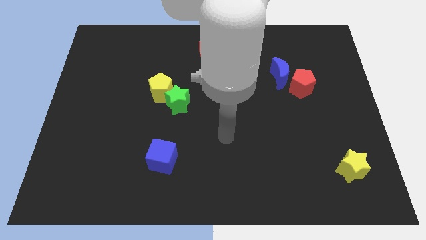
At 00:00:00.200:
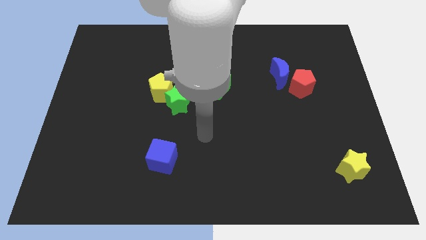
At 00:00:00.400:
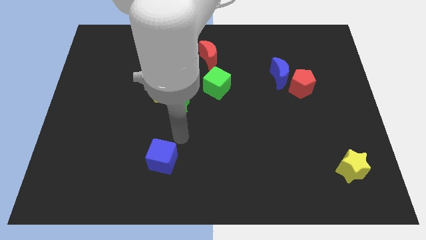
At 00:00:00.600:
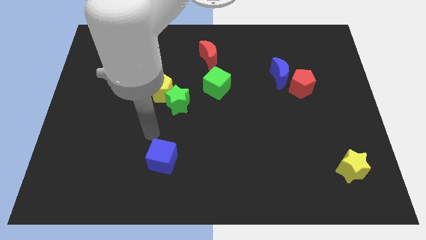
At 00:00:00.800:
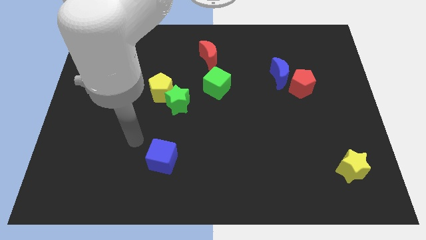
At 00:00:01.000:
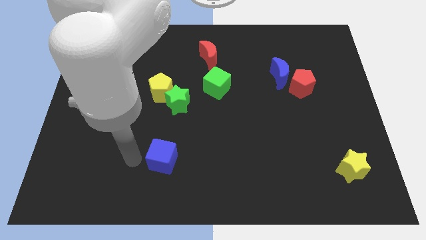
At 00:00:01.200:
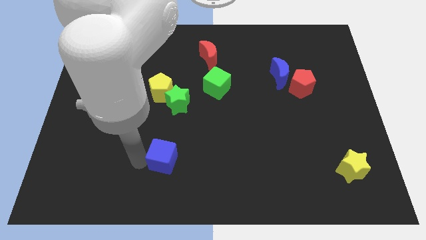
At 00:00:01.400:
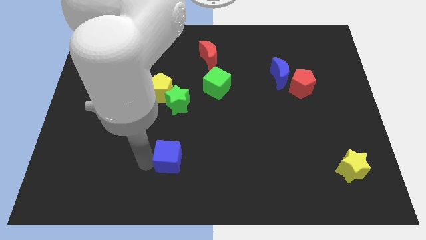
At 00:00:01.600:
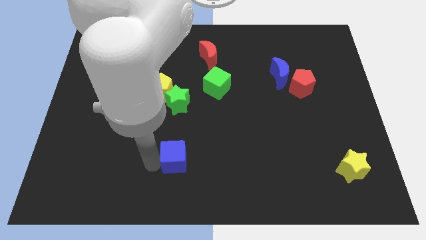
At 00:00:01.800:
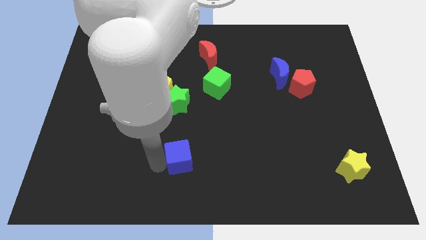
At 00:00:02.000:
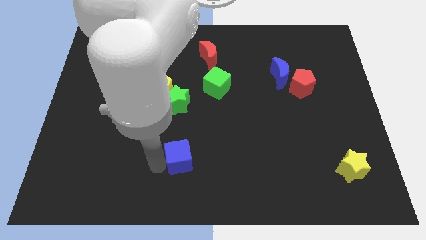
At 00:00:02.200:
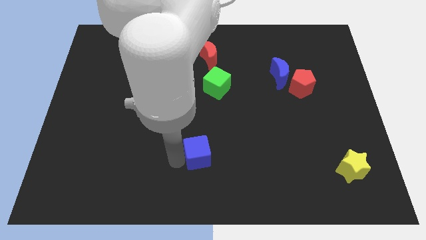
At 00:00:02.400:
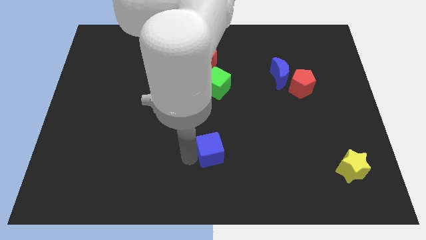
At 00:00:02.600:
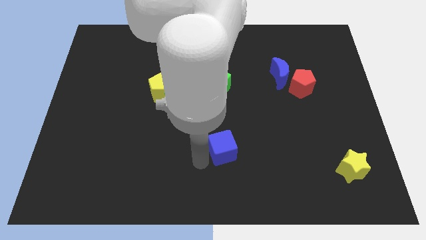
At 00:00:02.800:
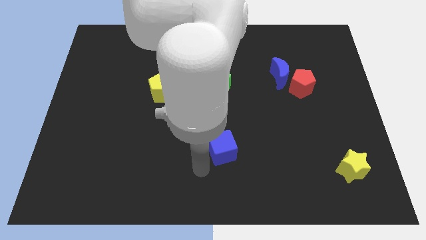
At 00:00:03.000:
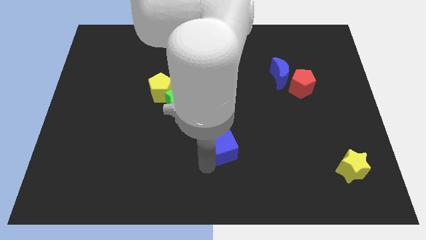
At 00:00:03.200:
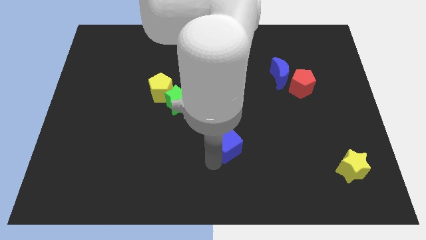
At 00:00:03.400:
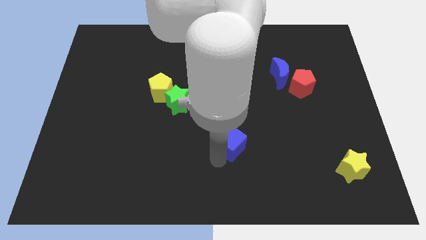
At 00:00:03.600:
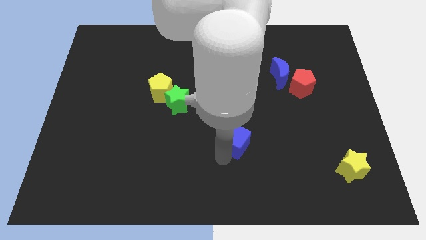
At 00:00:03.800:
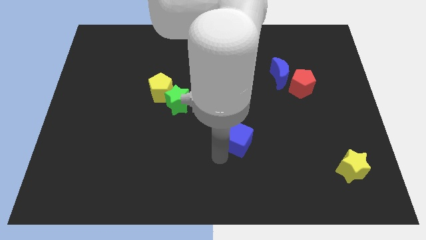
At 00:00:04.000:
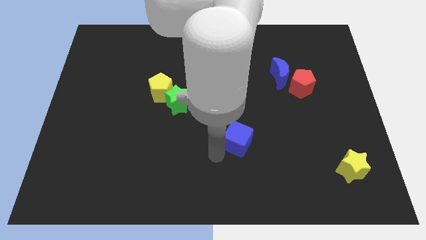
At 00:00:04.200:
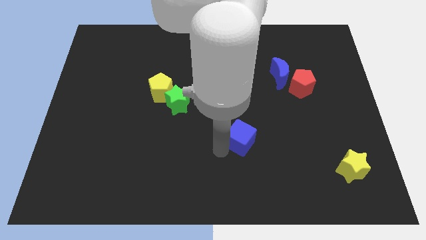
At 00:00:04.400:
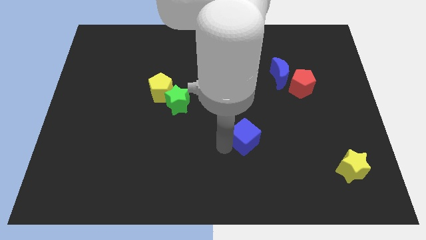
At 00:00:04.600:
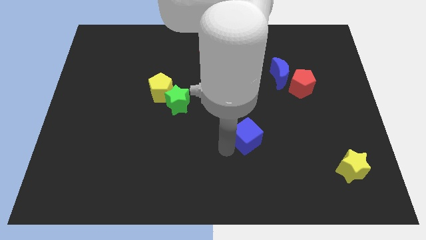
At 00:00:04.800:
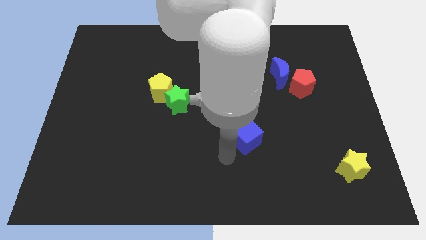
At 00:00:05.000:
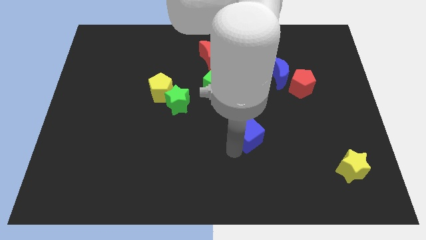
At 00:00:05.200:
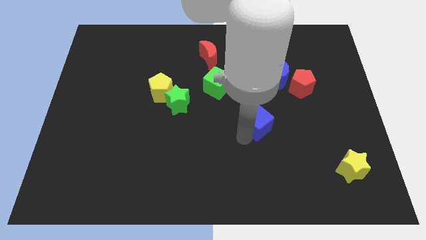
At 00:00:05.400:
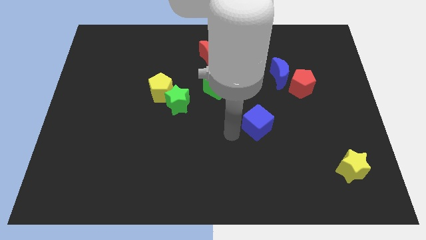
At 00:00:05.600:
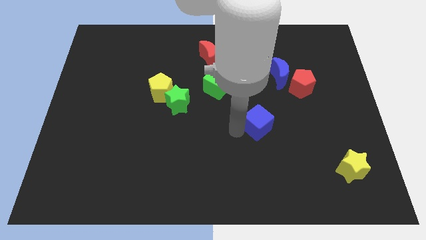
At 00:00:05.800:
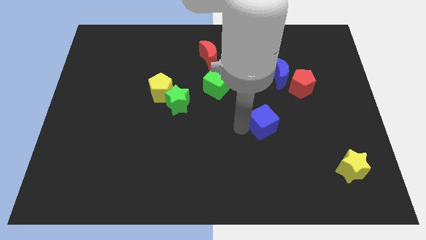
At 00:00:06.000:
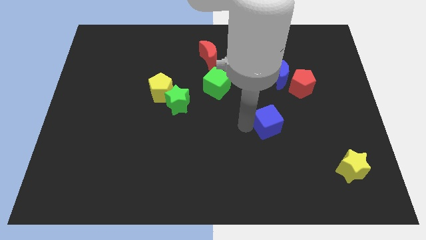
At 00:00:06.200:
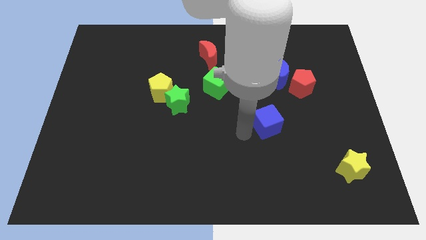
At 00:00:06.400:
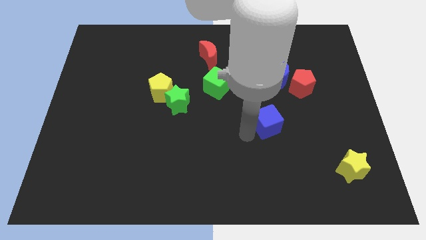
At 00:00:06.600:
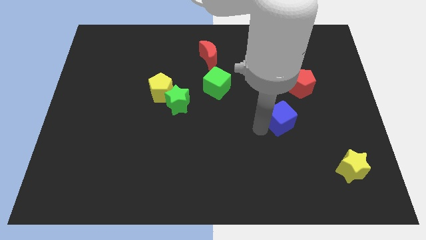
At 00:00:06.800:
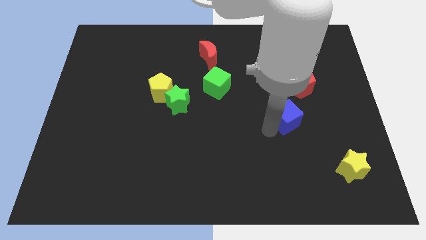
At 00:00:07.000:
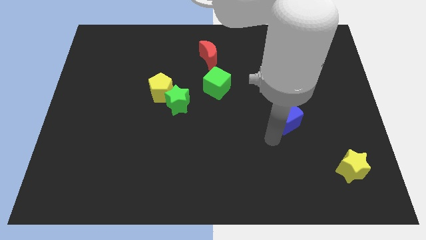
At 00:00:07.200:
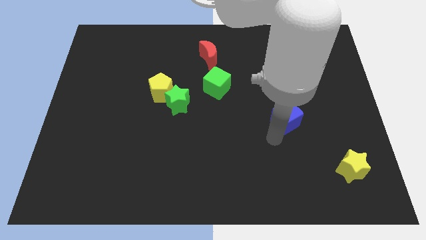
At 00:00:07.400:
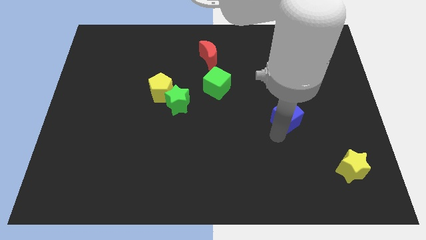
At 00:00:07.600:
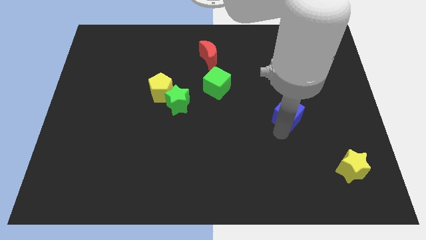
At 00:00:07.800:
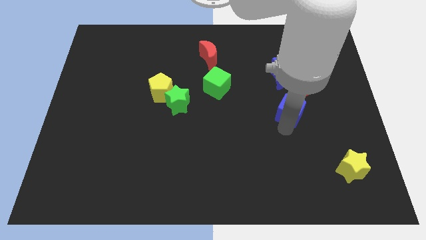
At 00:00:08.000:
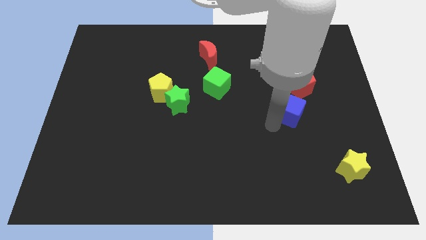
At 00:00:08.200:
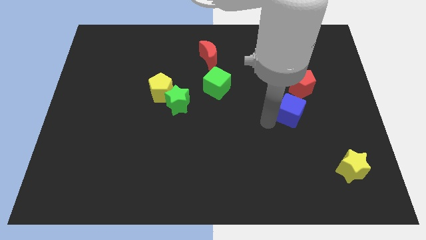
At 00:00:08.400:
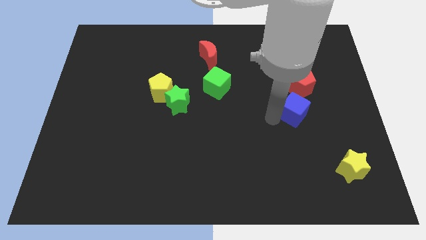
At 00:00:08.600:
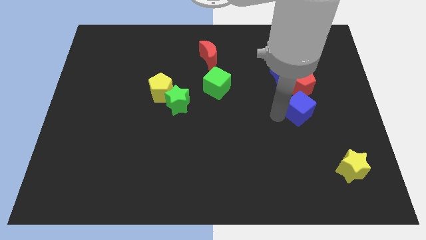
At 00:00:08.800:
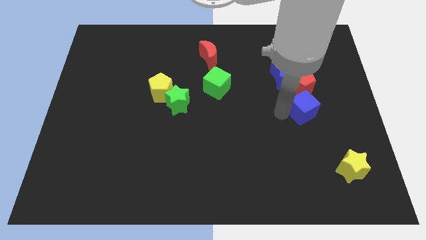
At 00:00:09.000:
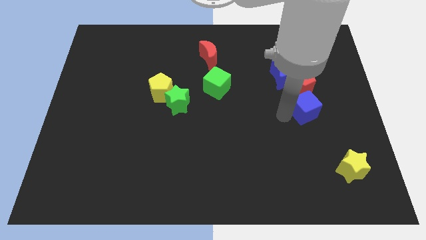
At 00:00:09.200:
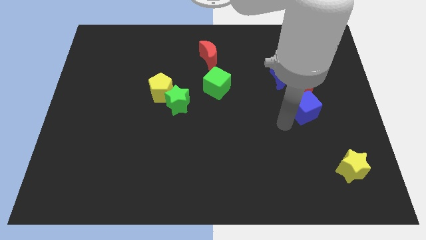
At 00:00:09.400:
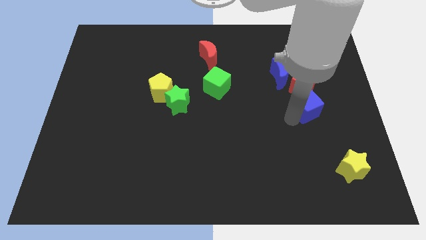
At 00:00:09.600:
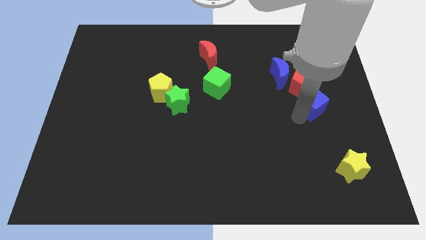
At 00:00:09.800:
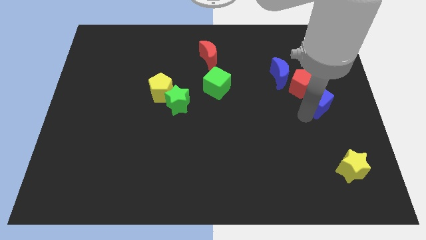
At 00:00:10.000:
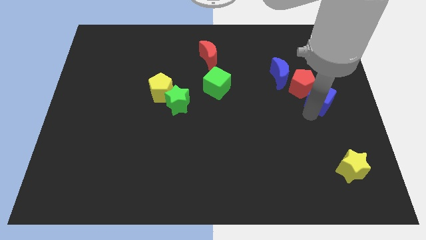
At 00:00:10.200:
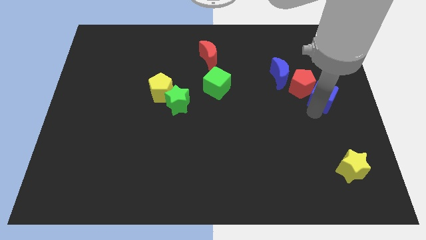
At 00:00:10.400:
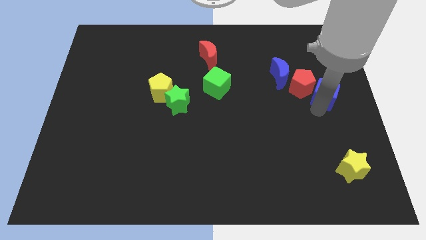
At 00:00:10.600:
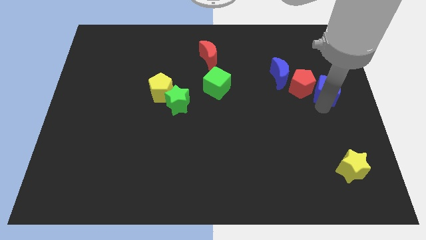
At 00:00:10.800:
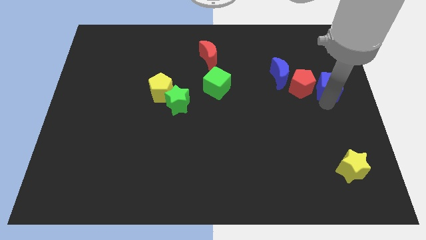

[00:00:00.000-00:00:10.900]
put the blue cube to the right of the blue moon

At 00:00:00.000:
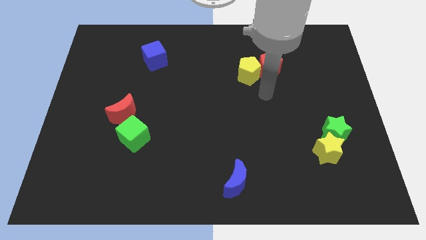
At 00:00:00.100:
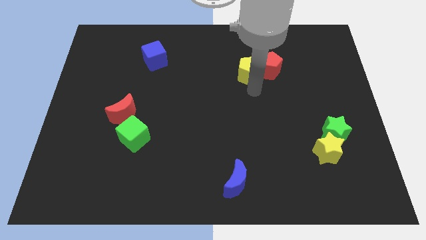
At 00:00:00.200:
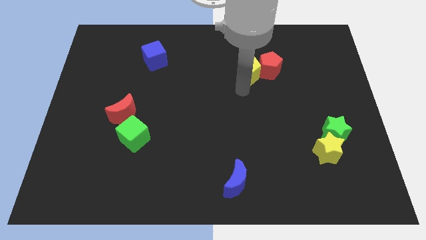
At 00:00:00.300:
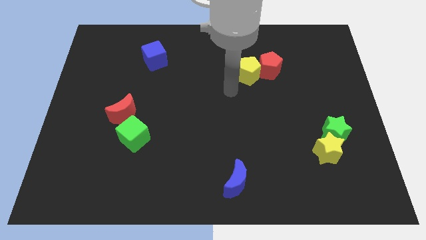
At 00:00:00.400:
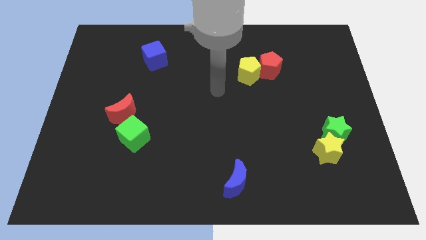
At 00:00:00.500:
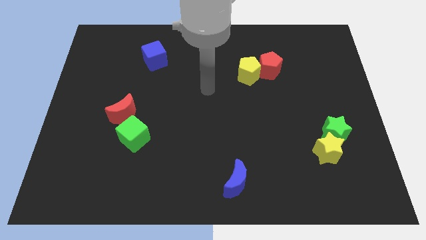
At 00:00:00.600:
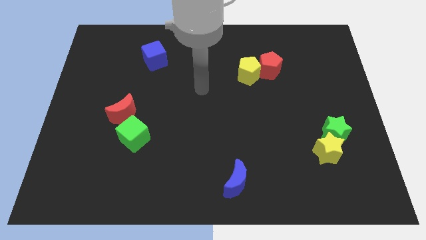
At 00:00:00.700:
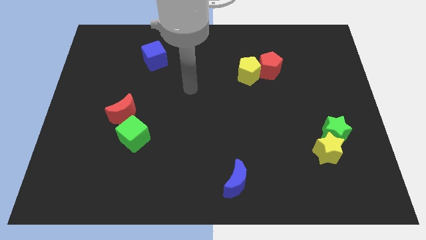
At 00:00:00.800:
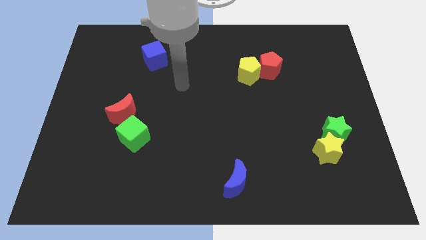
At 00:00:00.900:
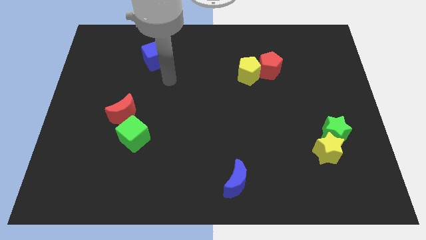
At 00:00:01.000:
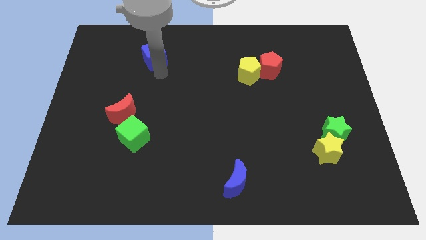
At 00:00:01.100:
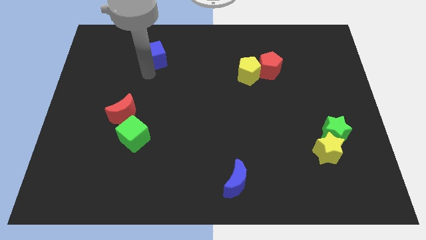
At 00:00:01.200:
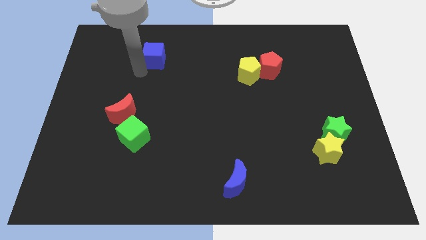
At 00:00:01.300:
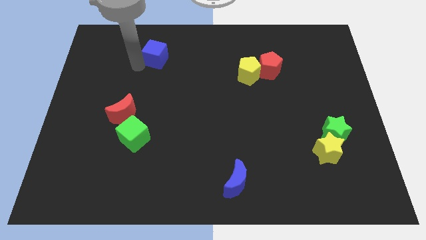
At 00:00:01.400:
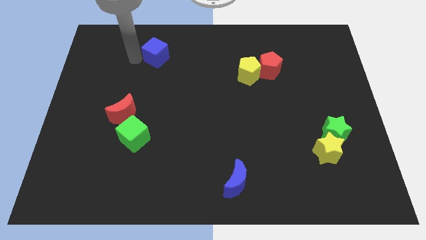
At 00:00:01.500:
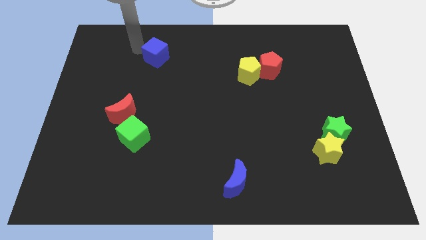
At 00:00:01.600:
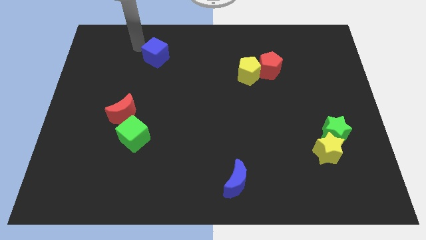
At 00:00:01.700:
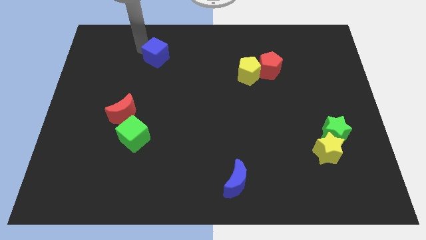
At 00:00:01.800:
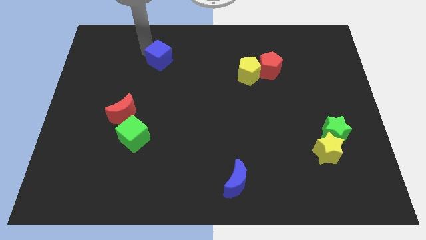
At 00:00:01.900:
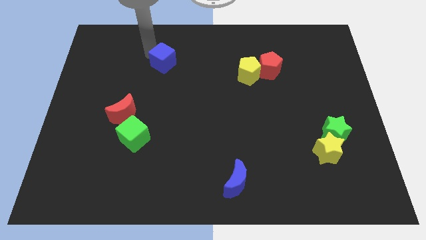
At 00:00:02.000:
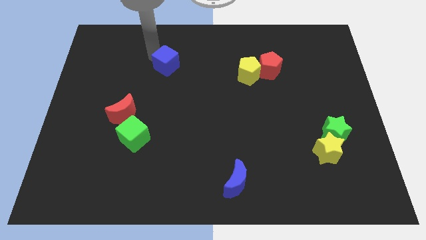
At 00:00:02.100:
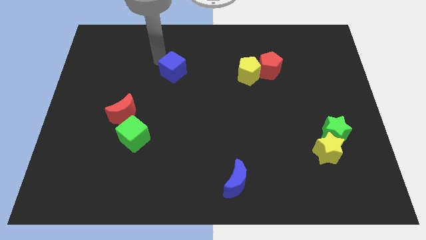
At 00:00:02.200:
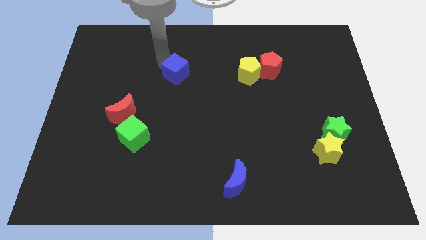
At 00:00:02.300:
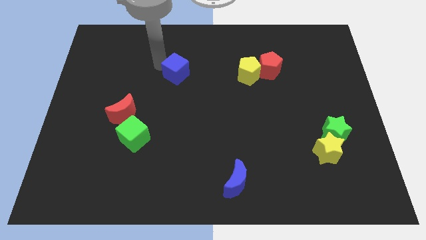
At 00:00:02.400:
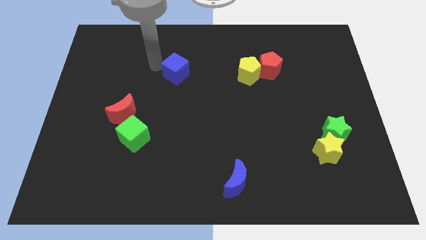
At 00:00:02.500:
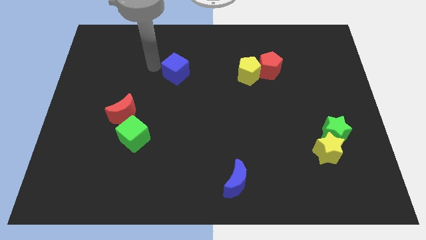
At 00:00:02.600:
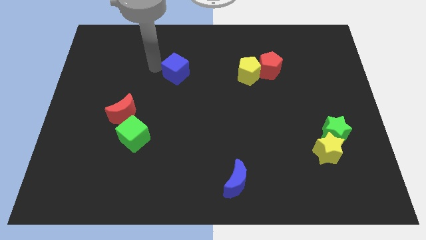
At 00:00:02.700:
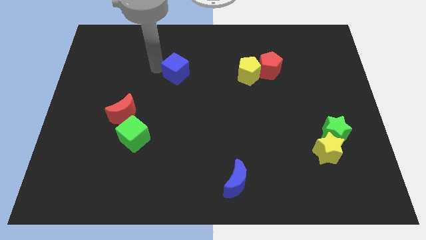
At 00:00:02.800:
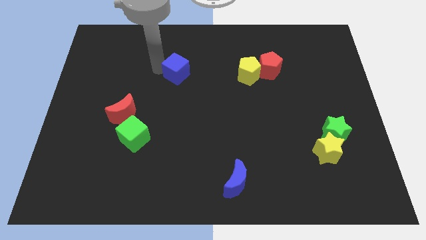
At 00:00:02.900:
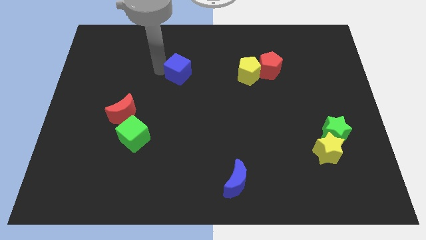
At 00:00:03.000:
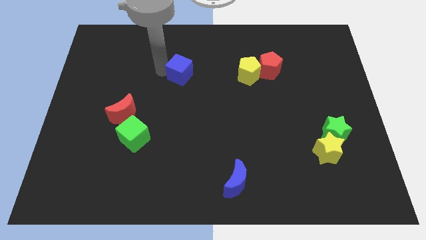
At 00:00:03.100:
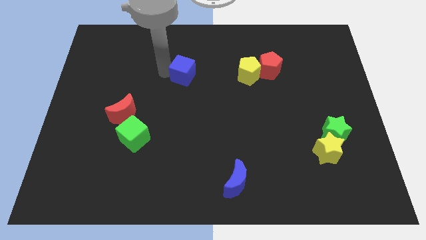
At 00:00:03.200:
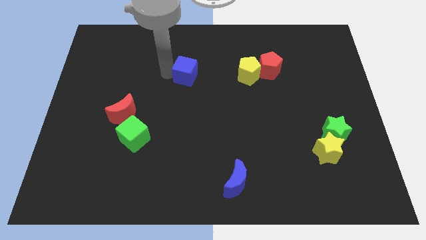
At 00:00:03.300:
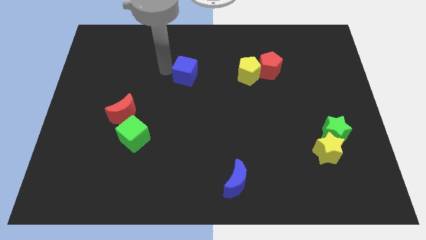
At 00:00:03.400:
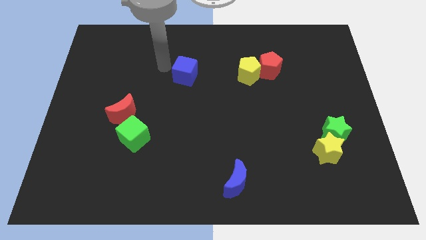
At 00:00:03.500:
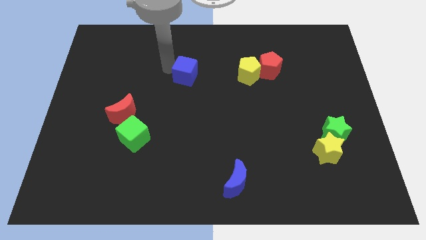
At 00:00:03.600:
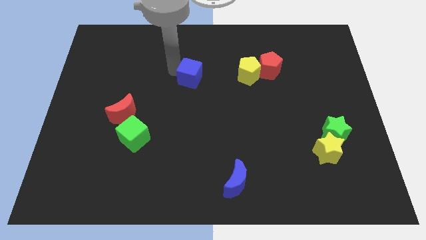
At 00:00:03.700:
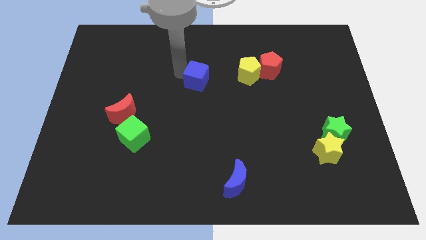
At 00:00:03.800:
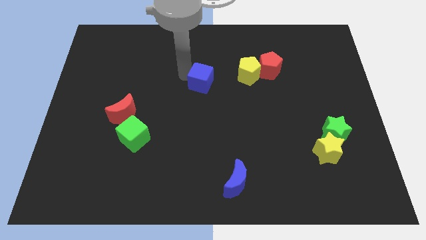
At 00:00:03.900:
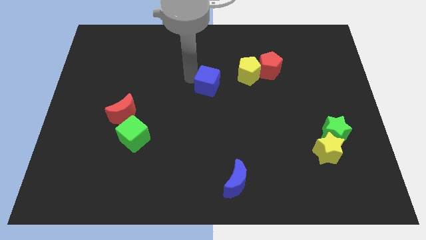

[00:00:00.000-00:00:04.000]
put the blue cube to the bottom left of the yellow pentagon
